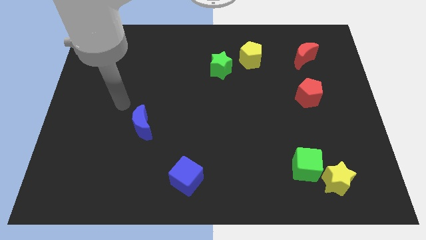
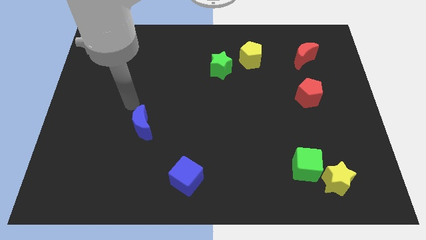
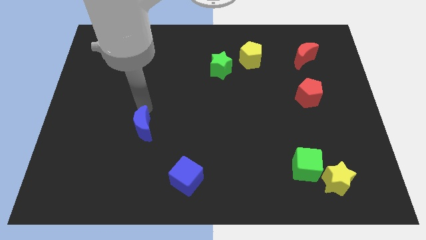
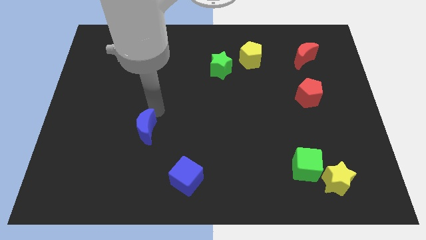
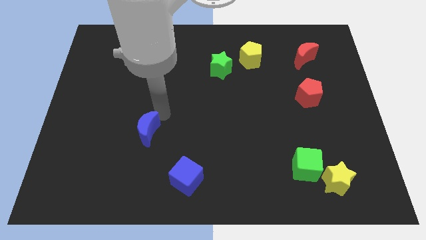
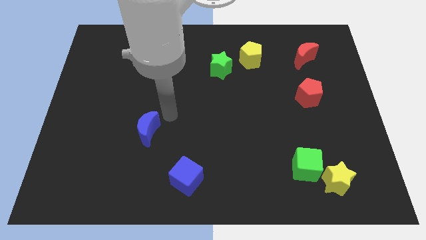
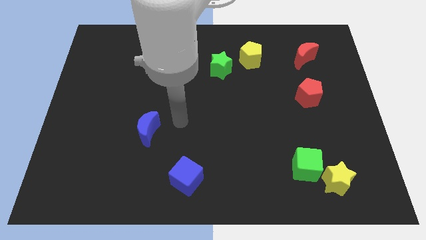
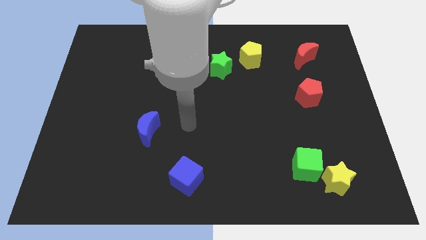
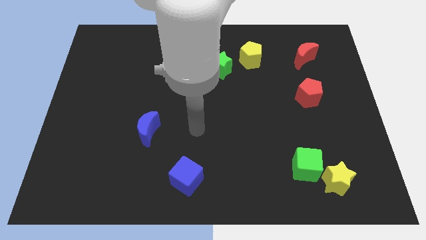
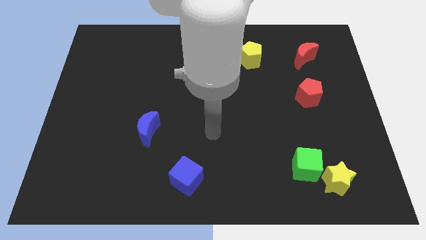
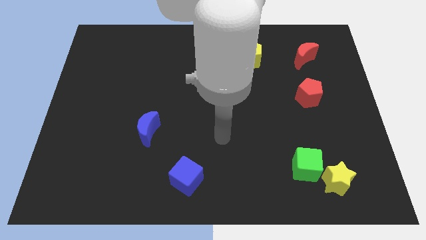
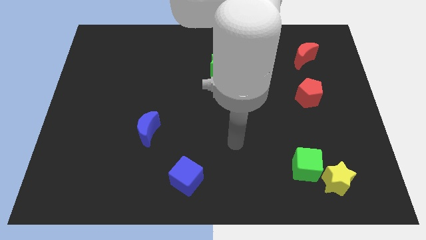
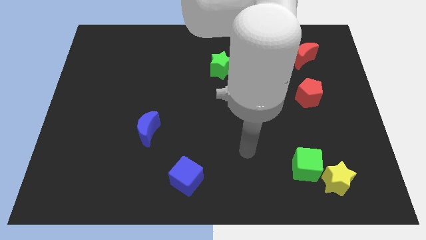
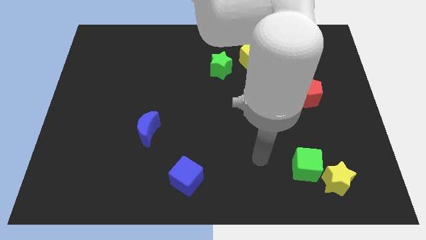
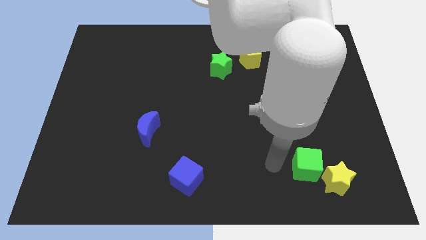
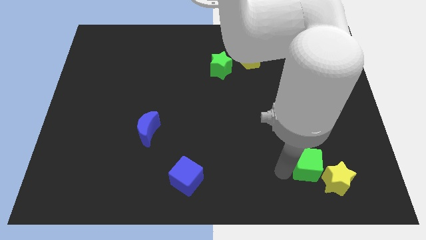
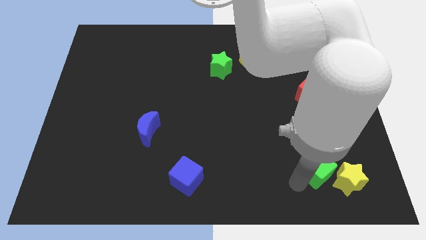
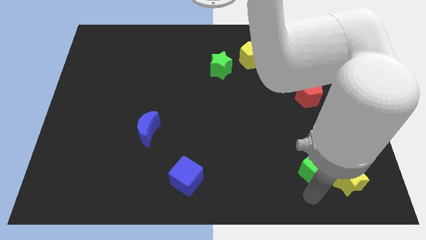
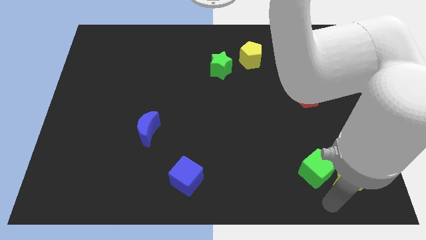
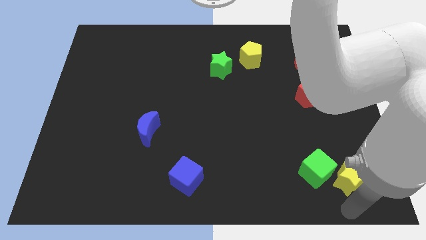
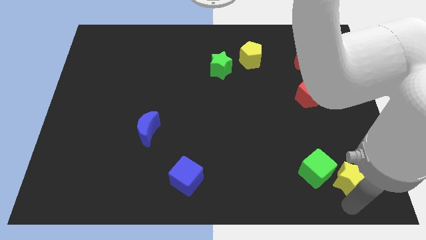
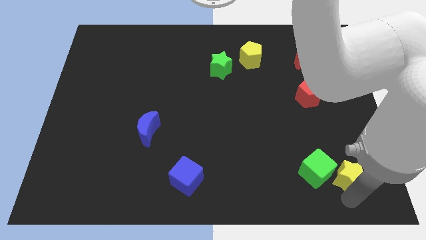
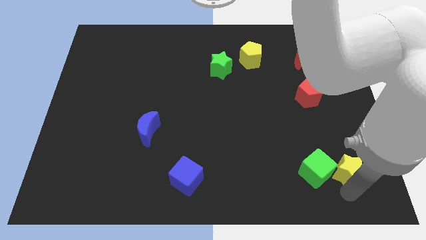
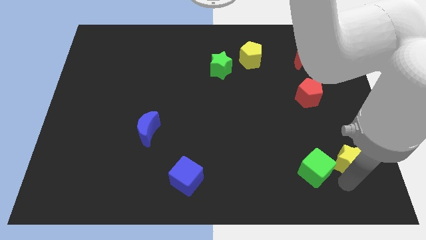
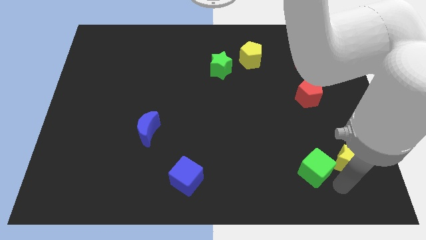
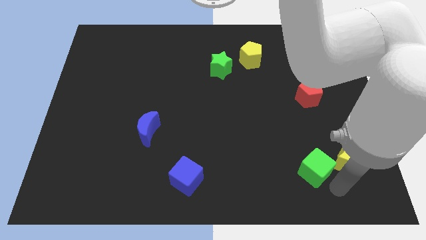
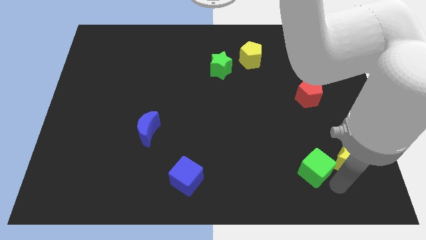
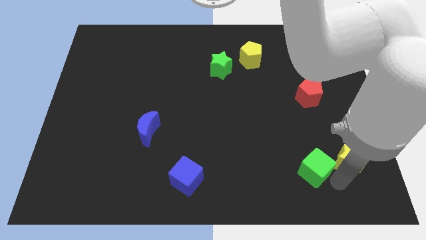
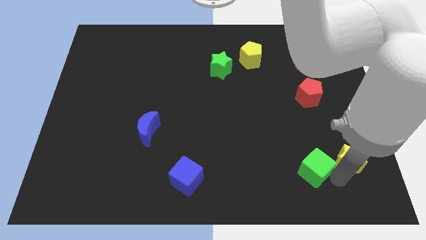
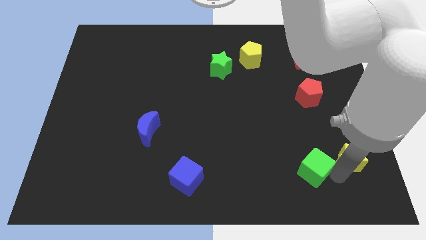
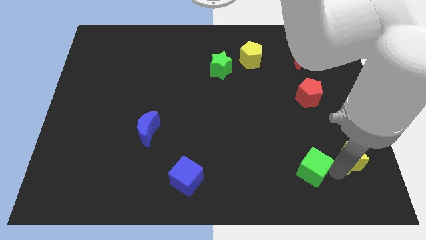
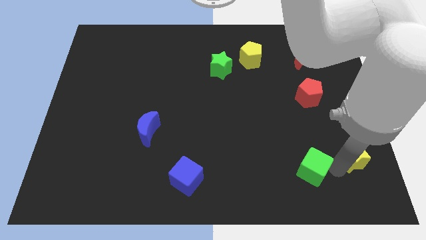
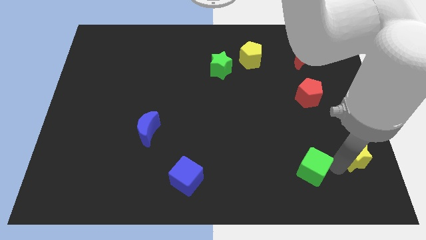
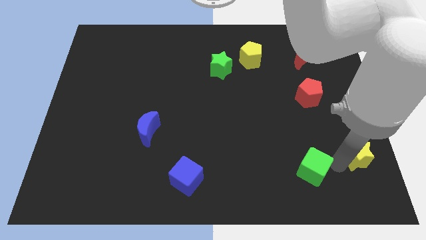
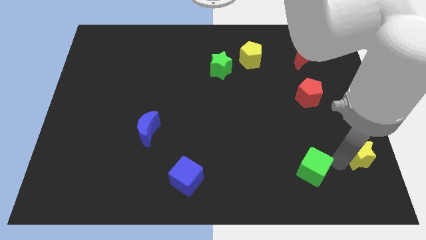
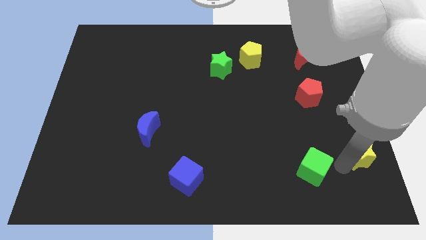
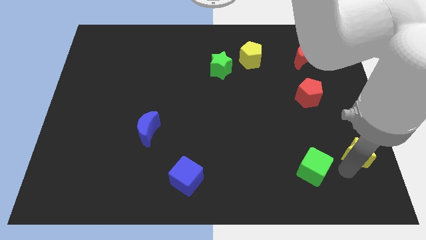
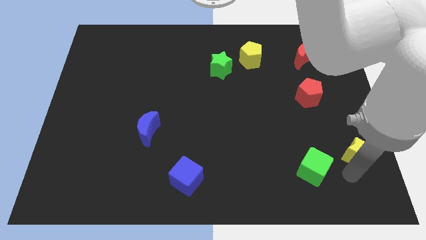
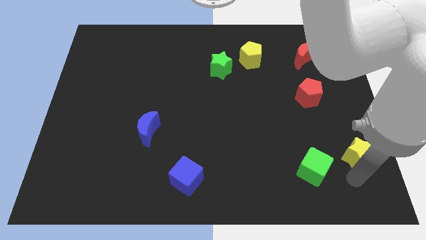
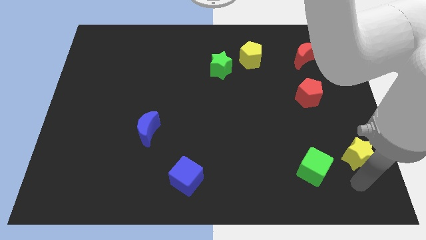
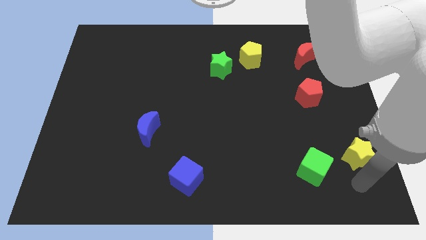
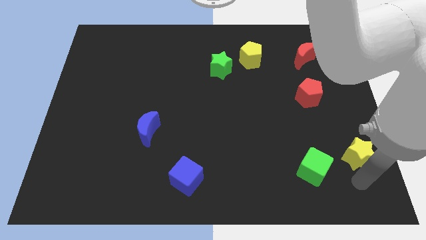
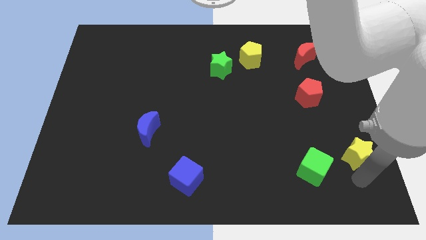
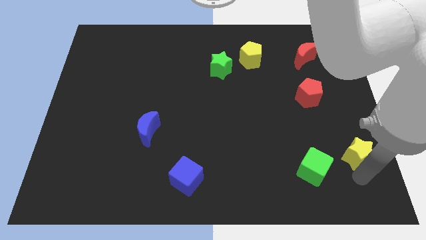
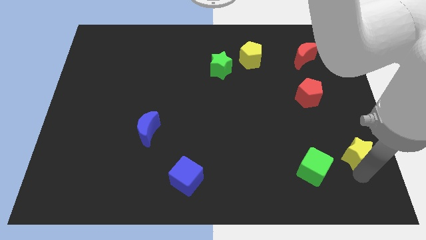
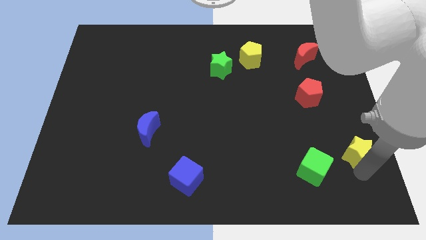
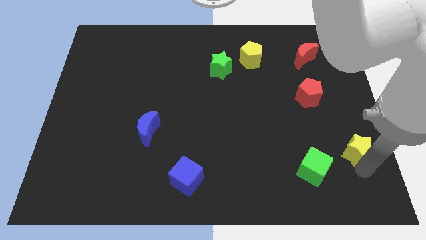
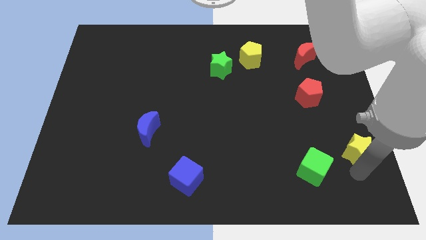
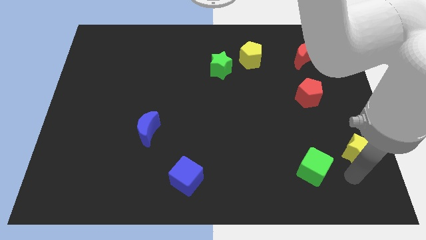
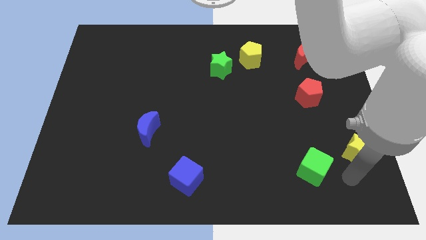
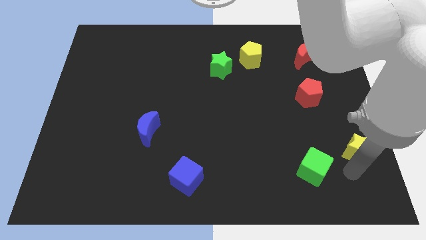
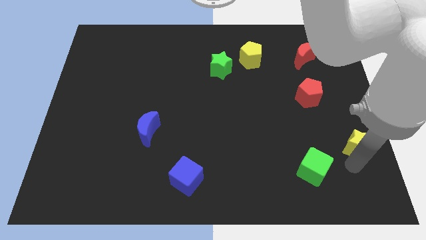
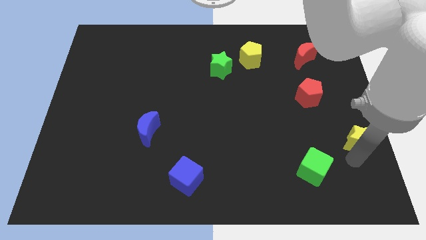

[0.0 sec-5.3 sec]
move the yellow star to the right side

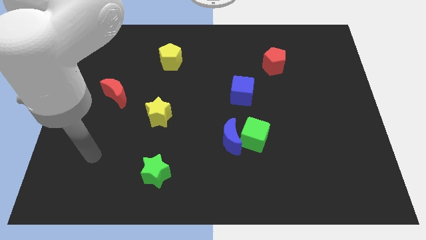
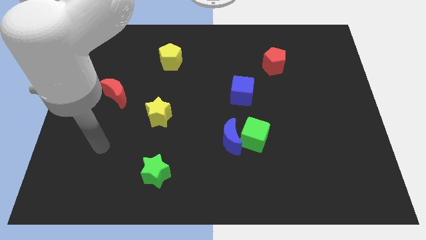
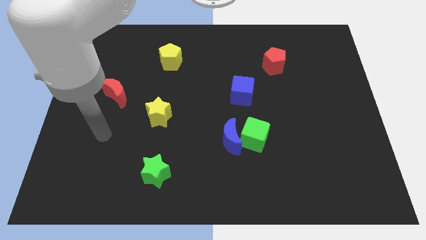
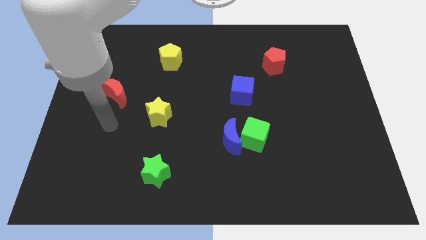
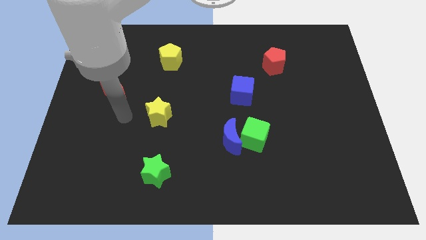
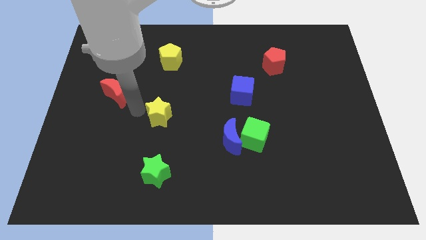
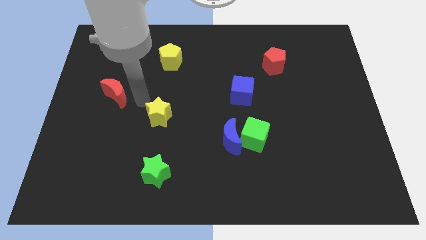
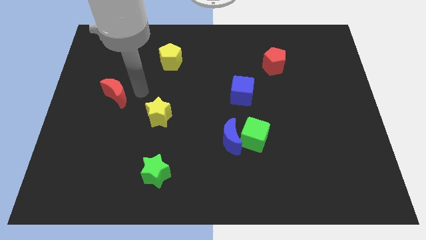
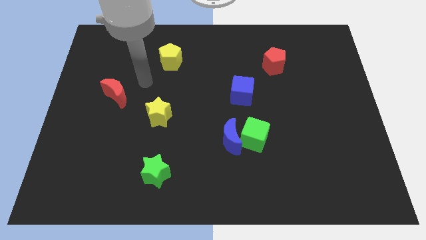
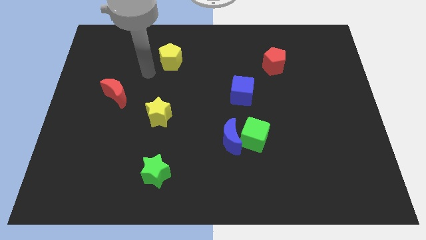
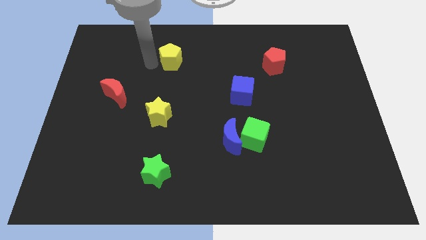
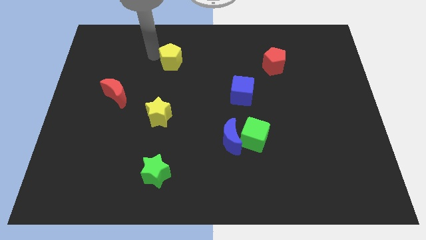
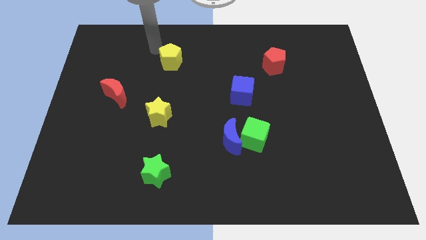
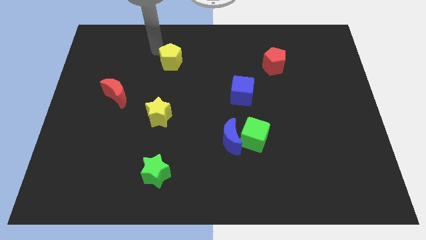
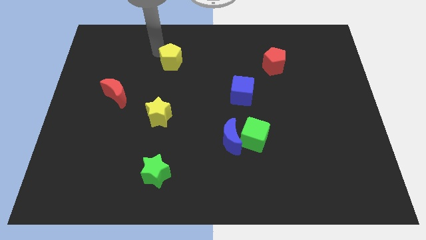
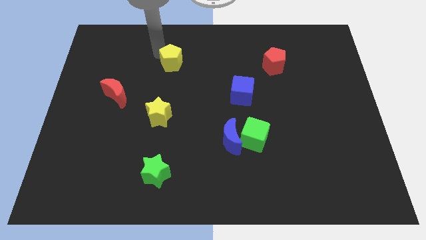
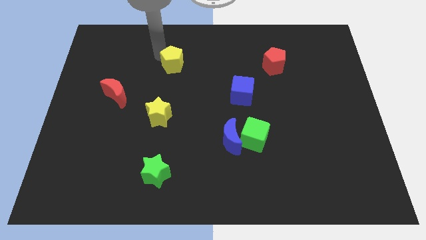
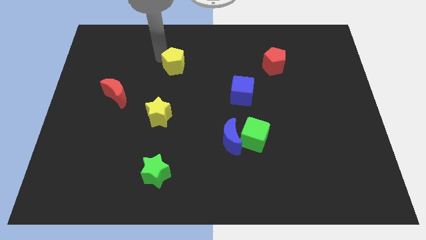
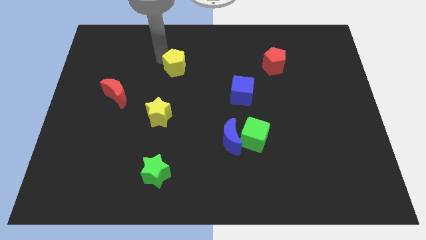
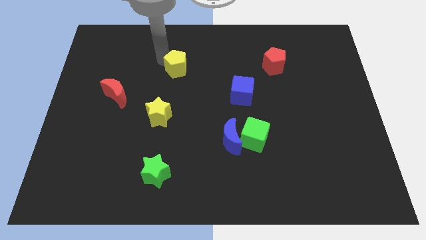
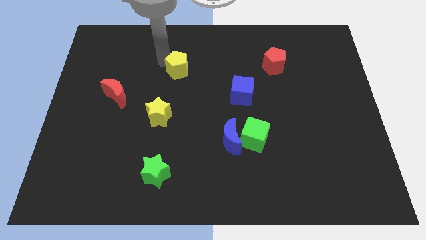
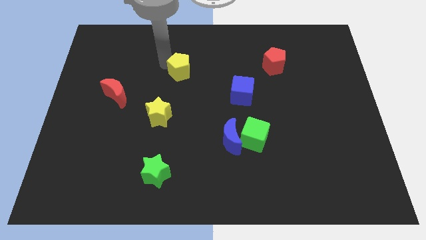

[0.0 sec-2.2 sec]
push the yellow pentagon to the center
